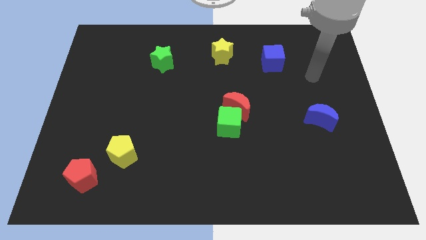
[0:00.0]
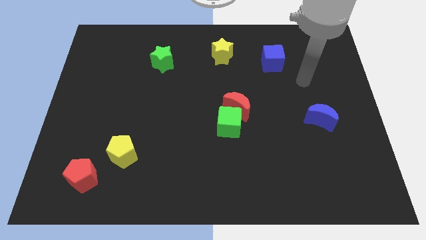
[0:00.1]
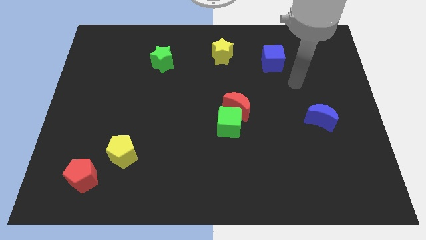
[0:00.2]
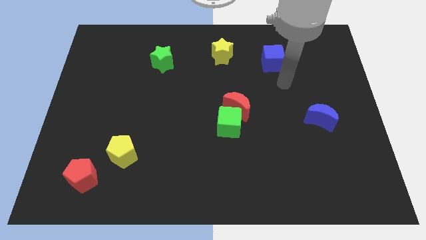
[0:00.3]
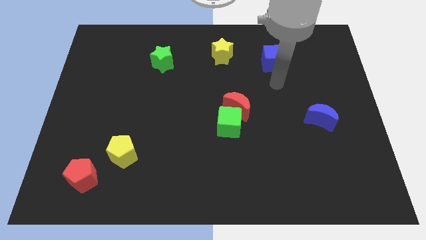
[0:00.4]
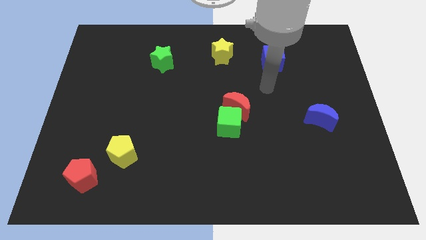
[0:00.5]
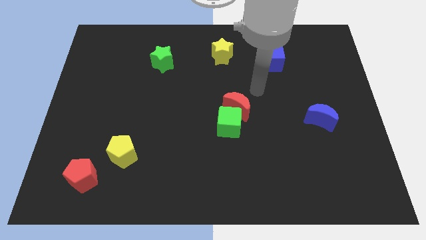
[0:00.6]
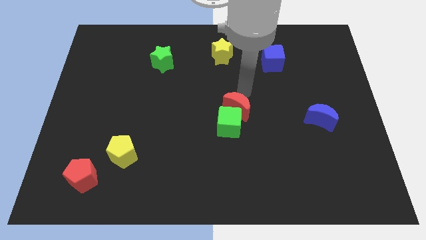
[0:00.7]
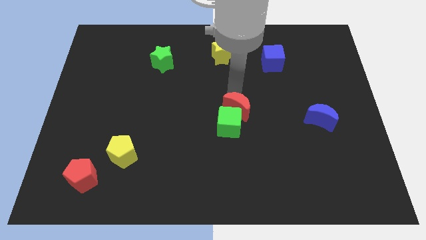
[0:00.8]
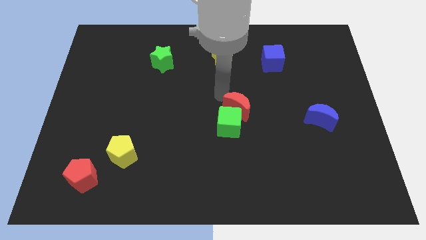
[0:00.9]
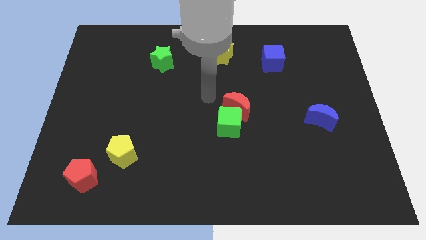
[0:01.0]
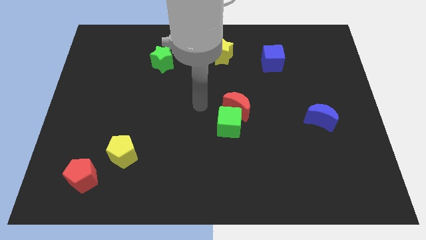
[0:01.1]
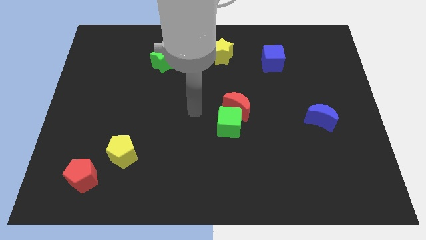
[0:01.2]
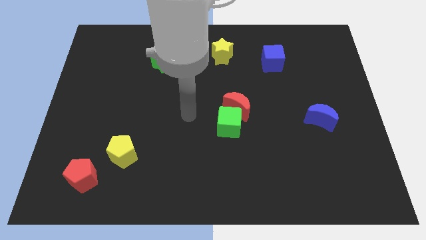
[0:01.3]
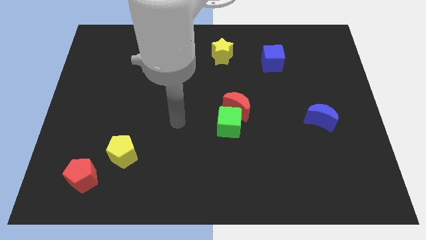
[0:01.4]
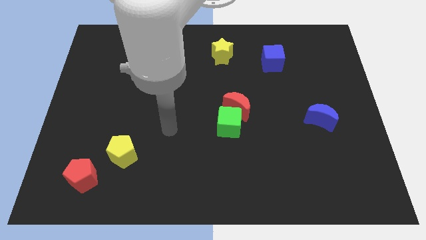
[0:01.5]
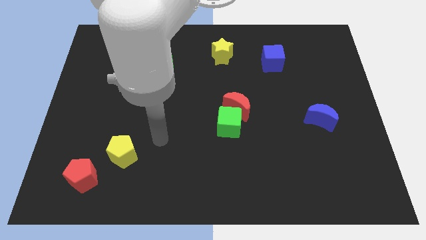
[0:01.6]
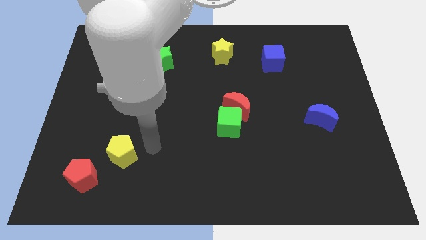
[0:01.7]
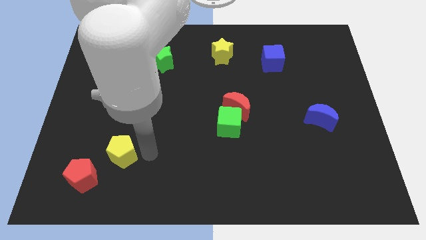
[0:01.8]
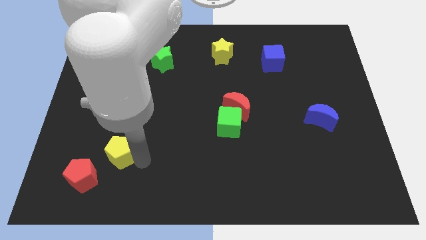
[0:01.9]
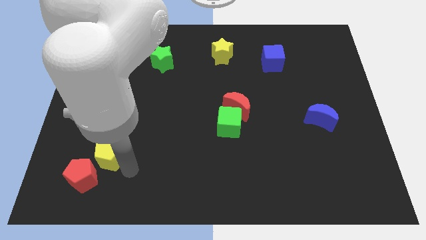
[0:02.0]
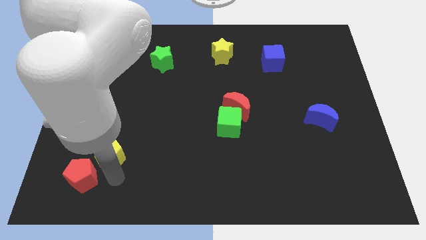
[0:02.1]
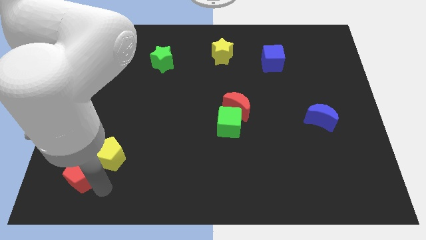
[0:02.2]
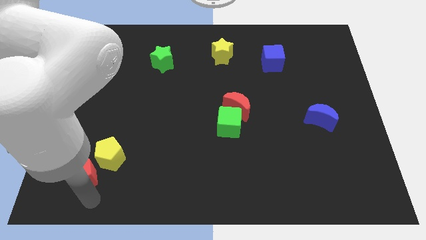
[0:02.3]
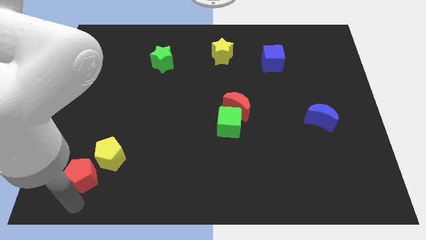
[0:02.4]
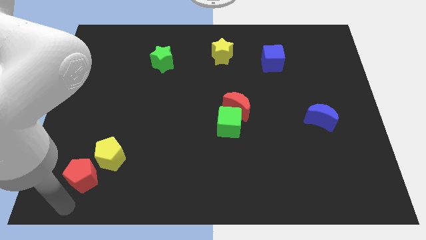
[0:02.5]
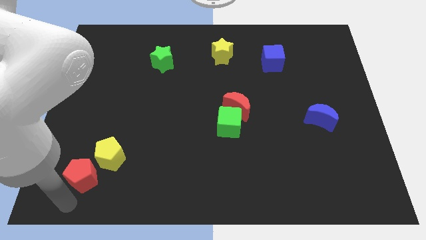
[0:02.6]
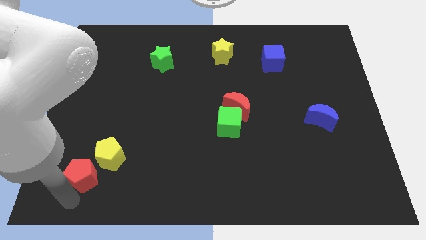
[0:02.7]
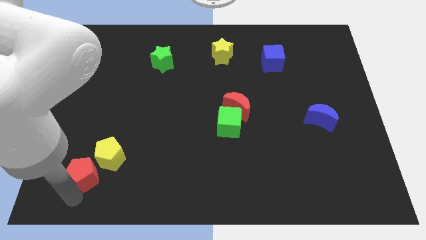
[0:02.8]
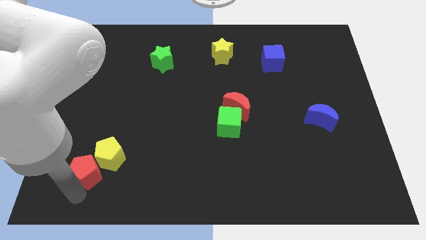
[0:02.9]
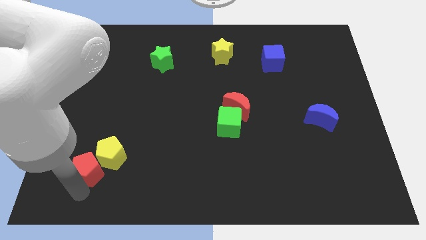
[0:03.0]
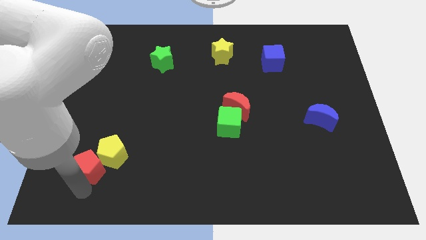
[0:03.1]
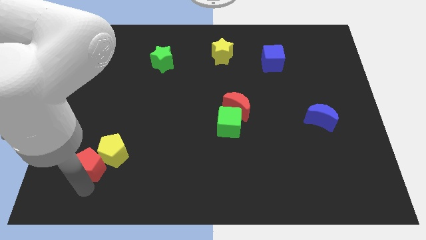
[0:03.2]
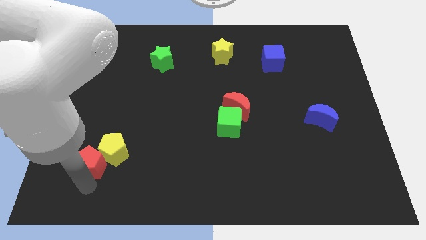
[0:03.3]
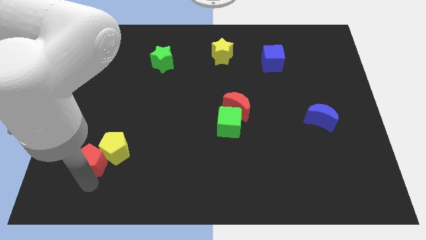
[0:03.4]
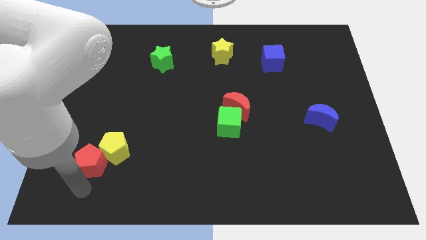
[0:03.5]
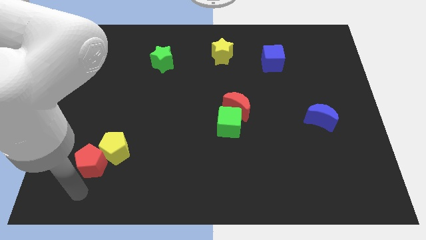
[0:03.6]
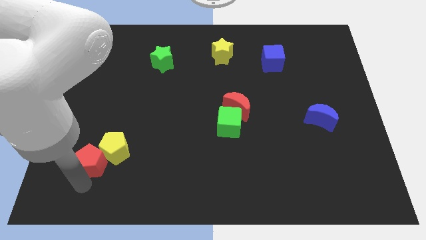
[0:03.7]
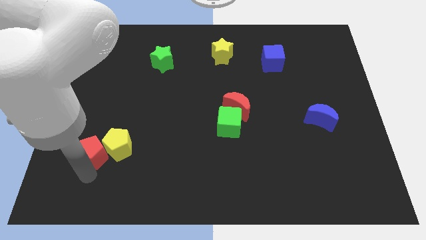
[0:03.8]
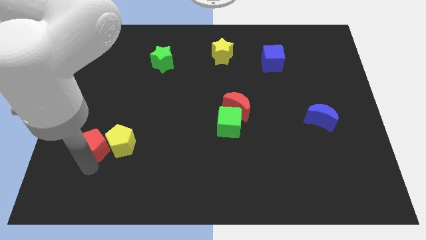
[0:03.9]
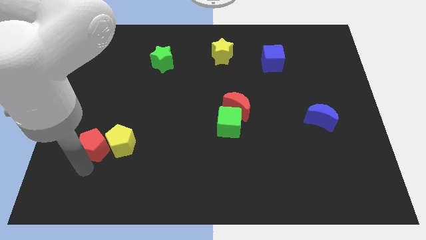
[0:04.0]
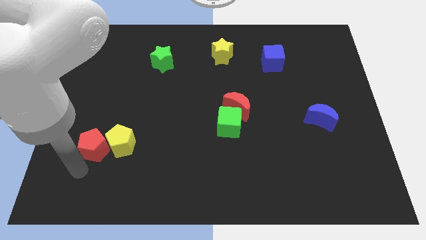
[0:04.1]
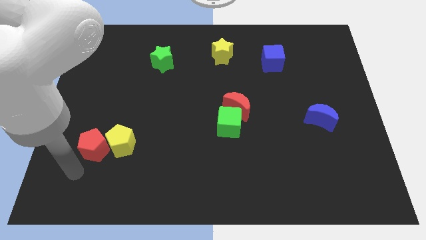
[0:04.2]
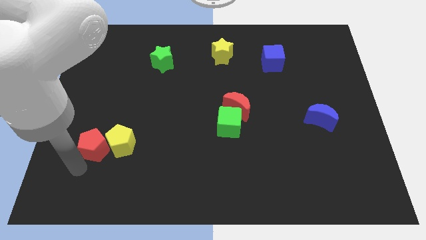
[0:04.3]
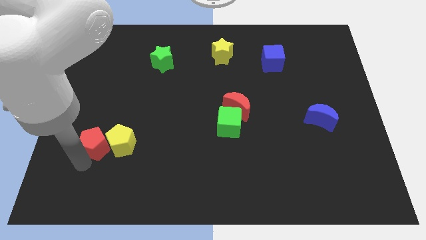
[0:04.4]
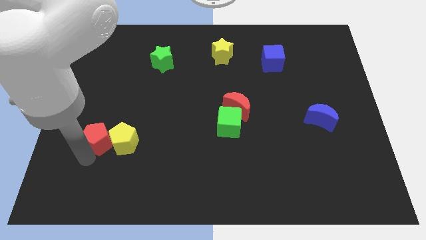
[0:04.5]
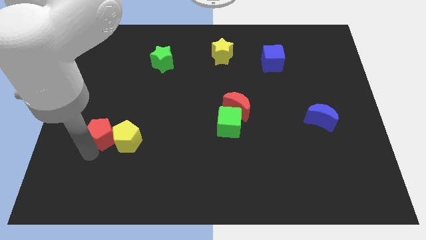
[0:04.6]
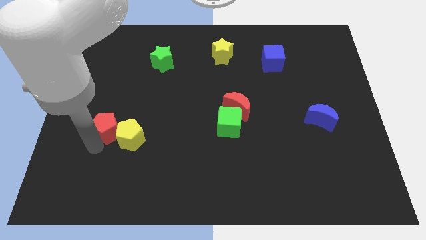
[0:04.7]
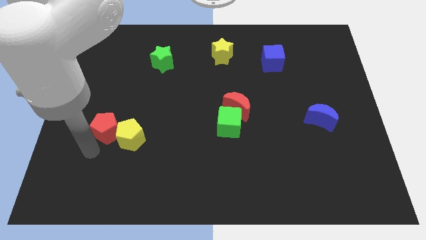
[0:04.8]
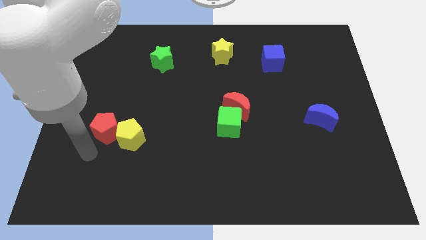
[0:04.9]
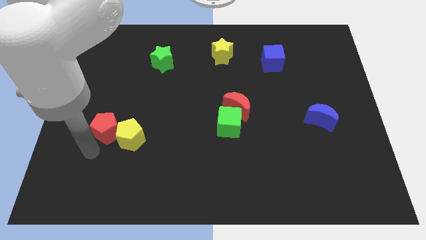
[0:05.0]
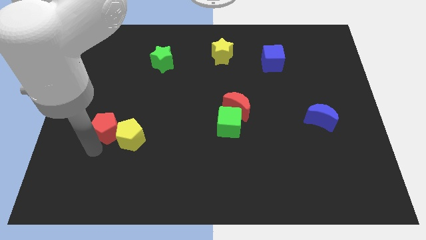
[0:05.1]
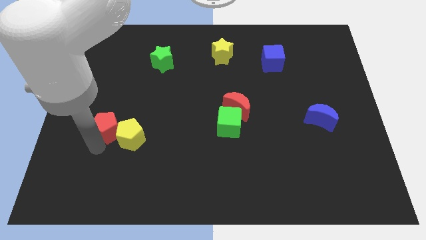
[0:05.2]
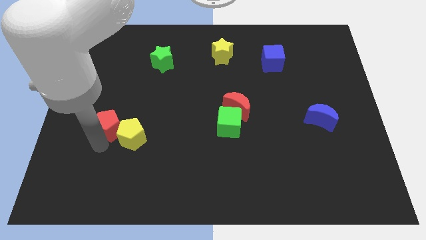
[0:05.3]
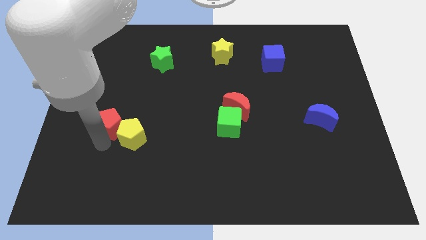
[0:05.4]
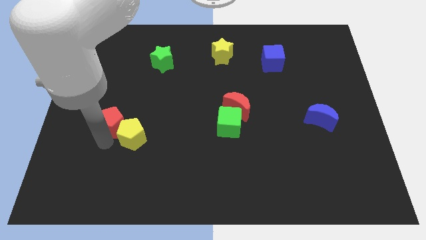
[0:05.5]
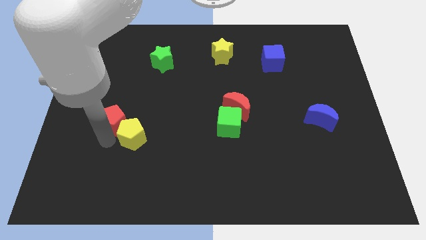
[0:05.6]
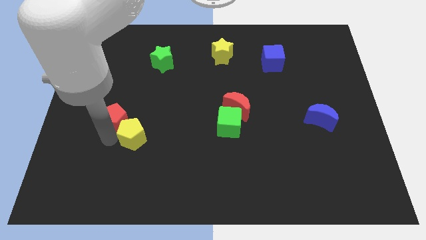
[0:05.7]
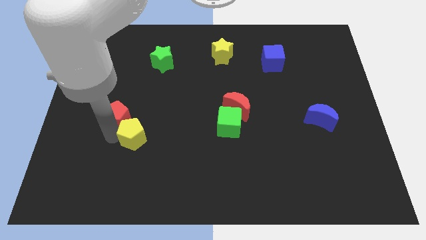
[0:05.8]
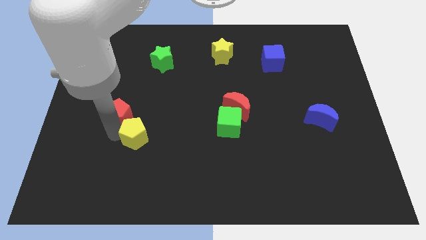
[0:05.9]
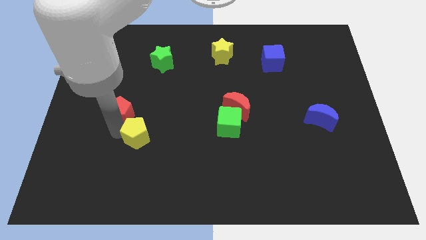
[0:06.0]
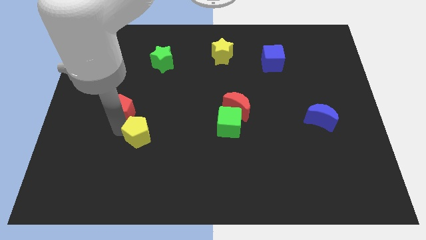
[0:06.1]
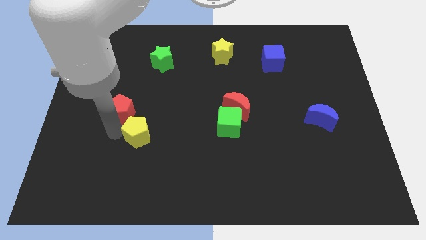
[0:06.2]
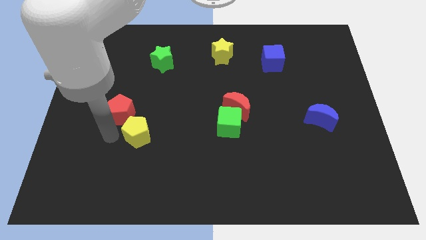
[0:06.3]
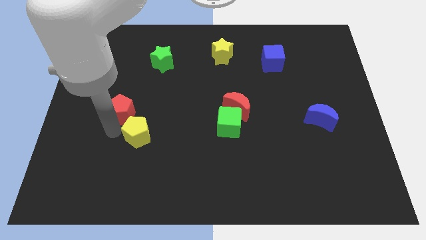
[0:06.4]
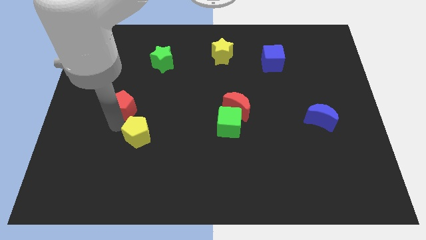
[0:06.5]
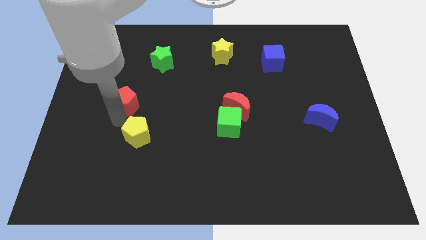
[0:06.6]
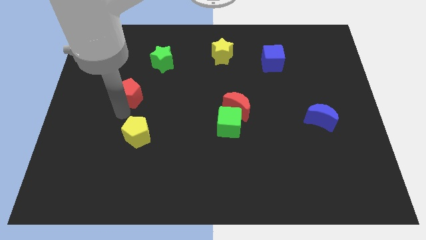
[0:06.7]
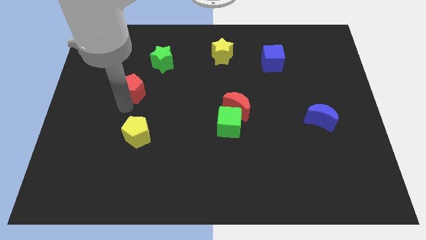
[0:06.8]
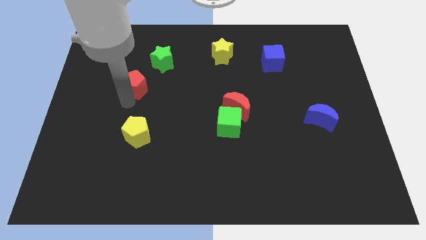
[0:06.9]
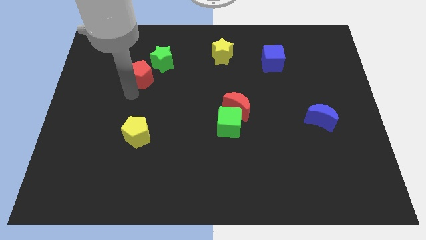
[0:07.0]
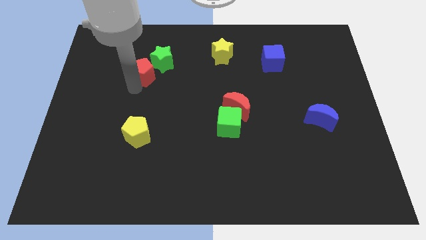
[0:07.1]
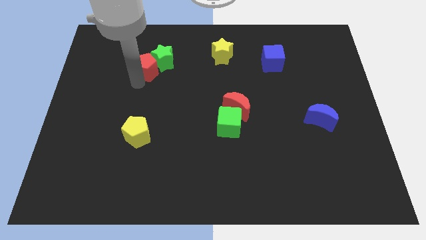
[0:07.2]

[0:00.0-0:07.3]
put the red pentagon to the green star

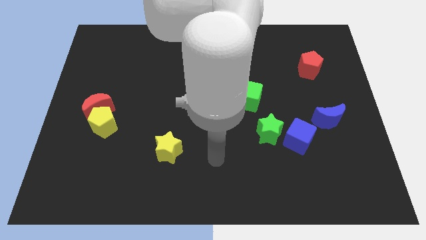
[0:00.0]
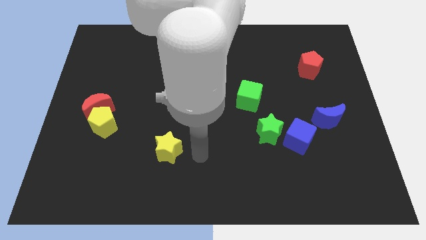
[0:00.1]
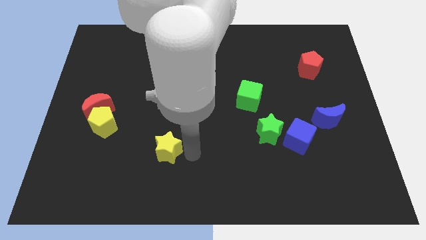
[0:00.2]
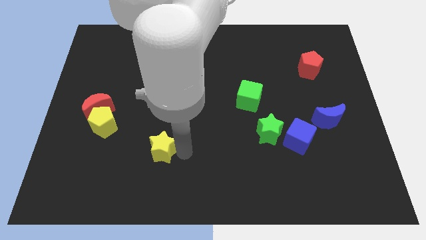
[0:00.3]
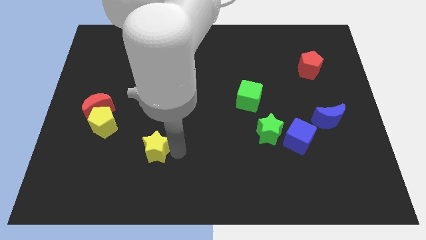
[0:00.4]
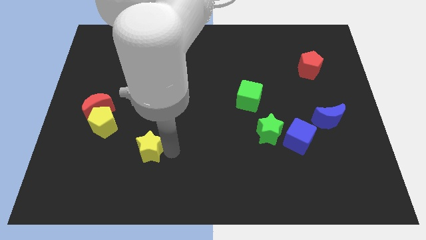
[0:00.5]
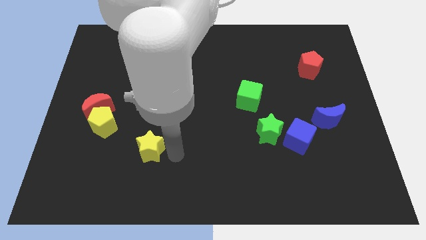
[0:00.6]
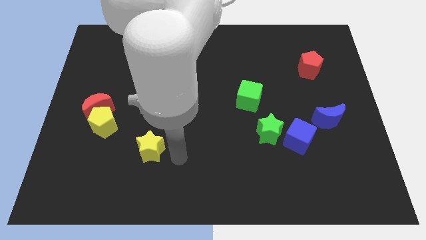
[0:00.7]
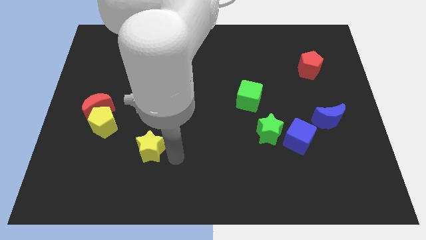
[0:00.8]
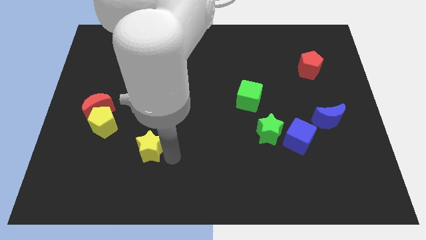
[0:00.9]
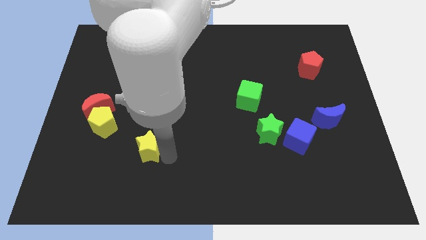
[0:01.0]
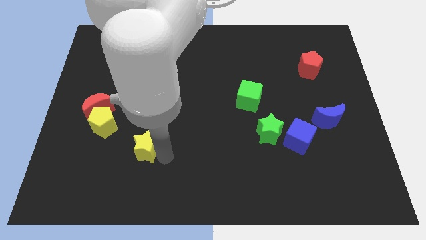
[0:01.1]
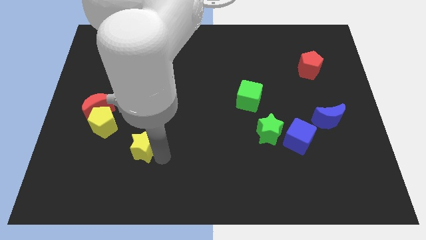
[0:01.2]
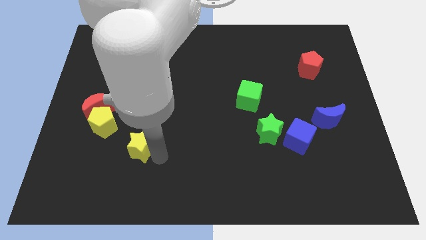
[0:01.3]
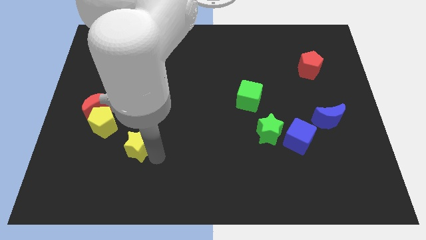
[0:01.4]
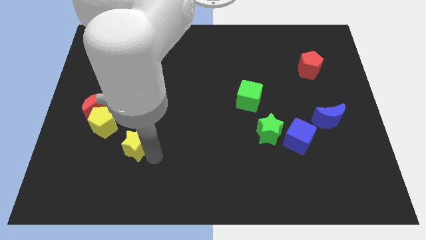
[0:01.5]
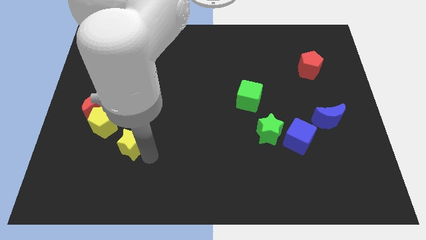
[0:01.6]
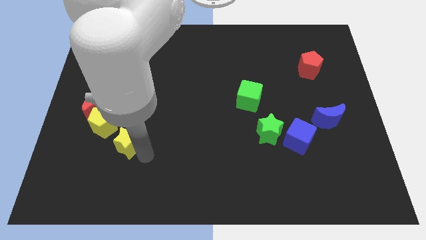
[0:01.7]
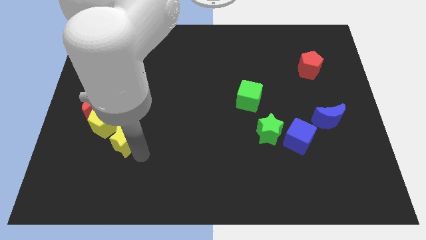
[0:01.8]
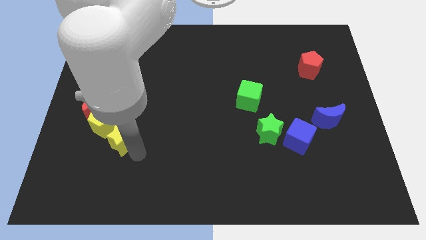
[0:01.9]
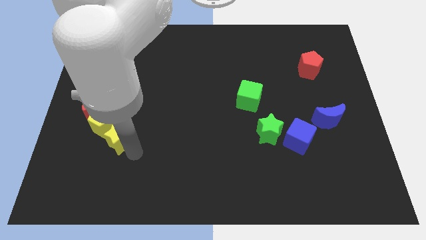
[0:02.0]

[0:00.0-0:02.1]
slide the yellow star towards the yellow pentagon
